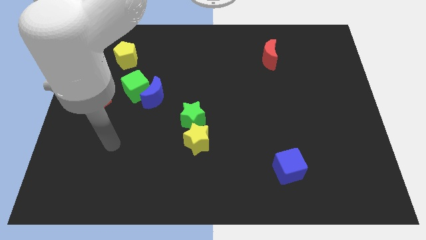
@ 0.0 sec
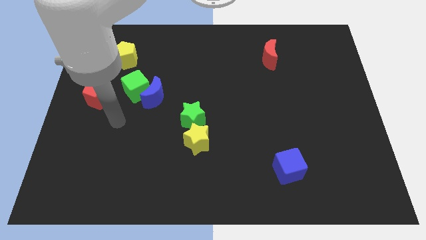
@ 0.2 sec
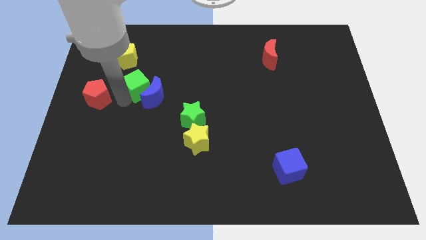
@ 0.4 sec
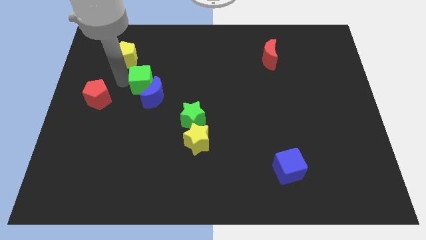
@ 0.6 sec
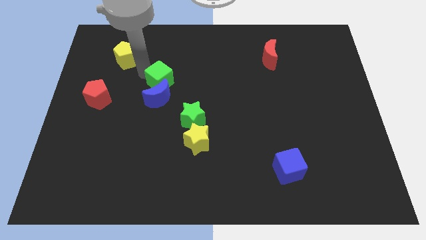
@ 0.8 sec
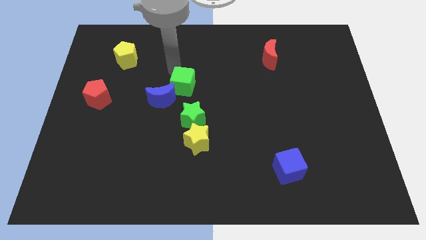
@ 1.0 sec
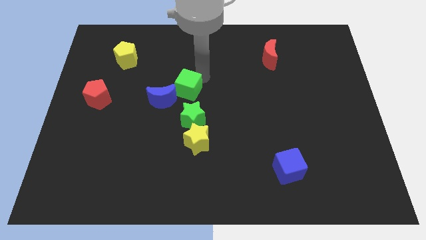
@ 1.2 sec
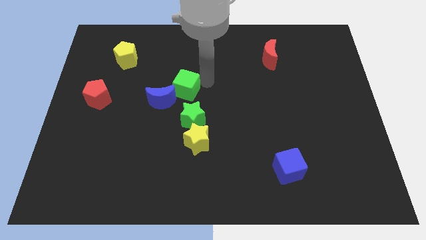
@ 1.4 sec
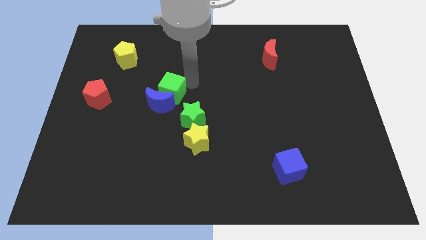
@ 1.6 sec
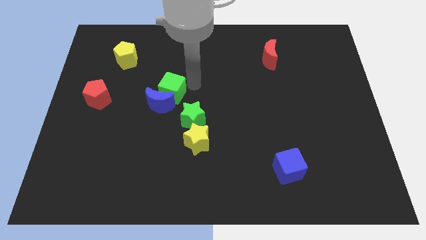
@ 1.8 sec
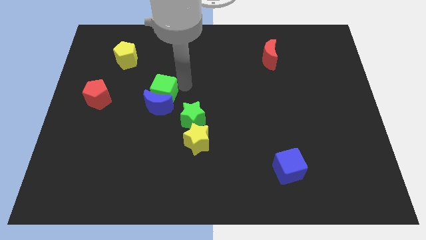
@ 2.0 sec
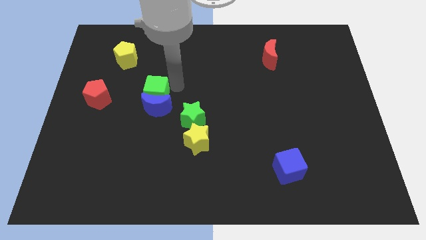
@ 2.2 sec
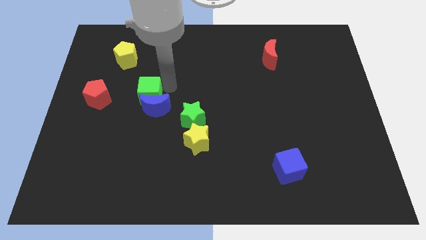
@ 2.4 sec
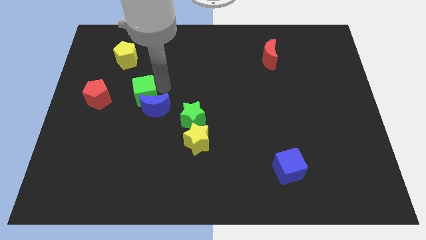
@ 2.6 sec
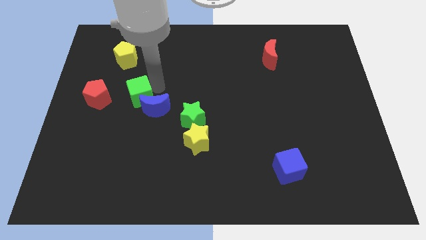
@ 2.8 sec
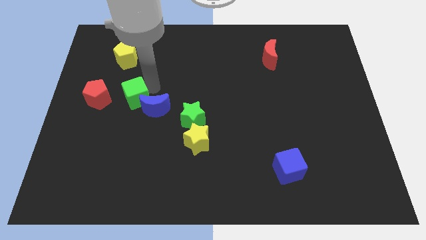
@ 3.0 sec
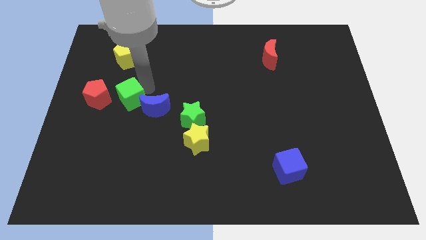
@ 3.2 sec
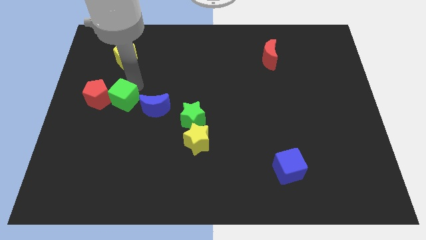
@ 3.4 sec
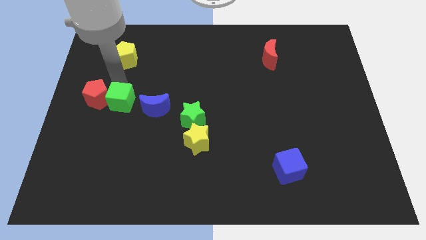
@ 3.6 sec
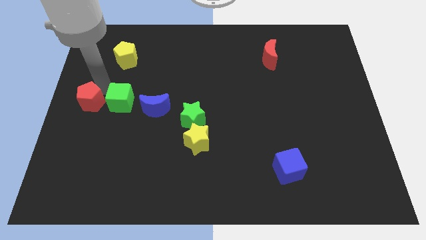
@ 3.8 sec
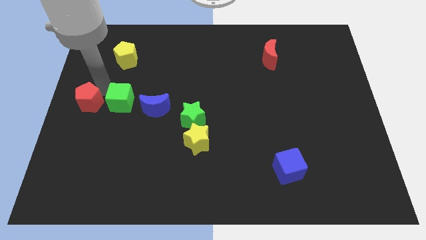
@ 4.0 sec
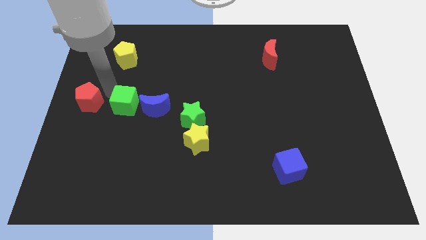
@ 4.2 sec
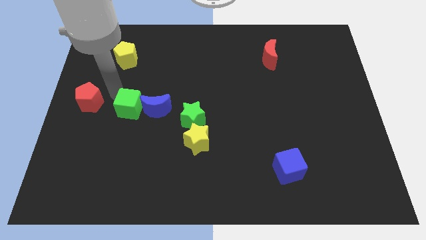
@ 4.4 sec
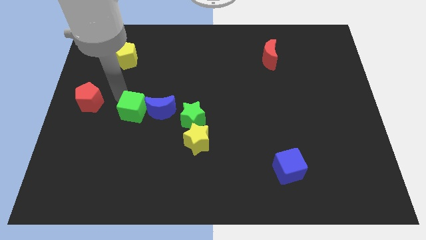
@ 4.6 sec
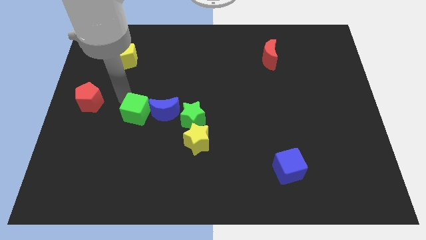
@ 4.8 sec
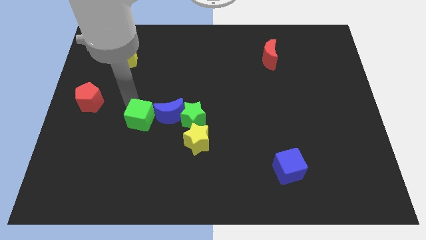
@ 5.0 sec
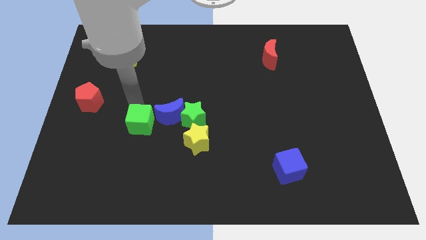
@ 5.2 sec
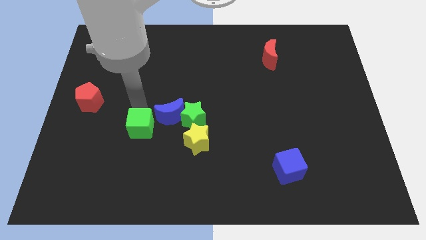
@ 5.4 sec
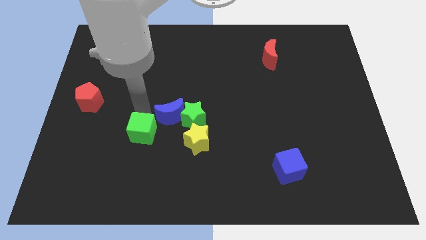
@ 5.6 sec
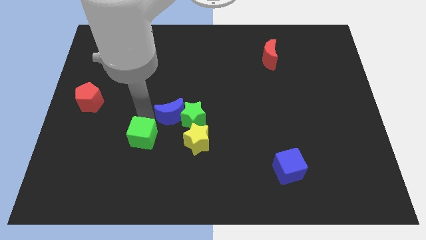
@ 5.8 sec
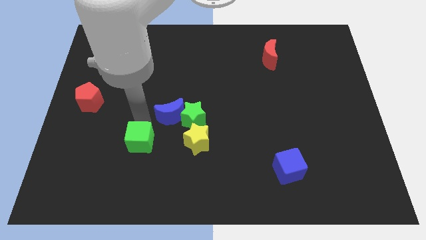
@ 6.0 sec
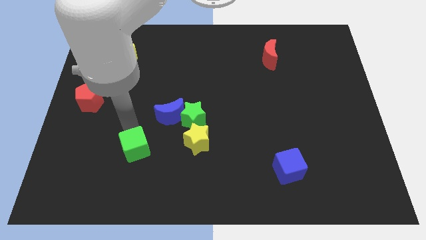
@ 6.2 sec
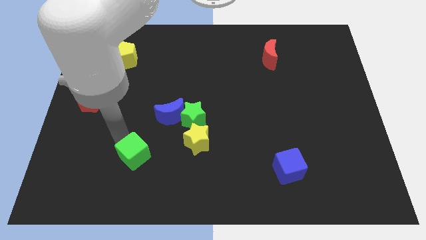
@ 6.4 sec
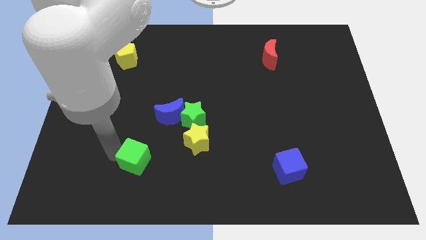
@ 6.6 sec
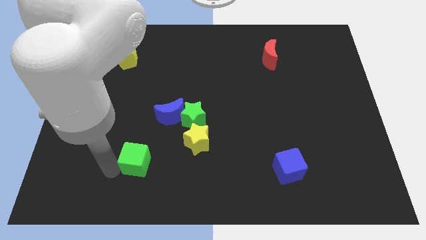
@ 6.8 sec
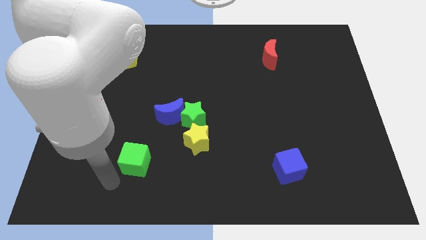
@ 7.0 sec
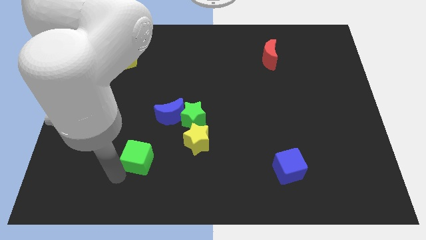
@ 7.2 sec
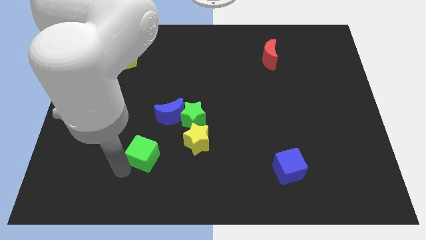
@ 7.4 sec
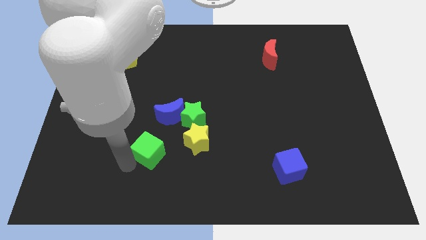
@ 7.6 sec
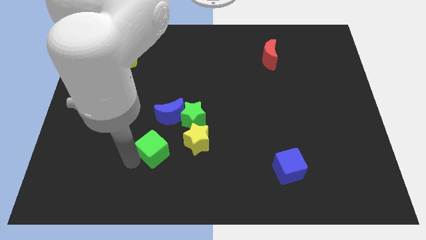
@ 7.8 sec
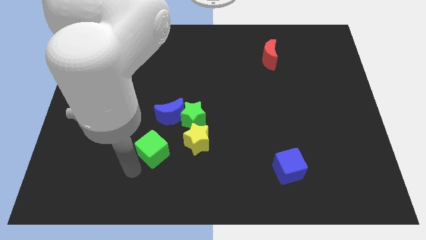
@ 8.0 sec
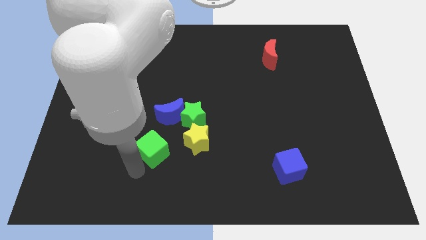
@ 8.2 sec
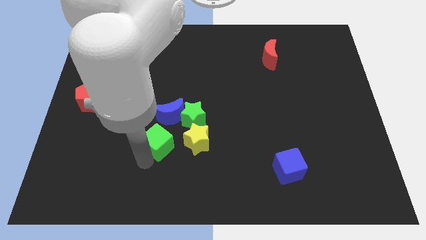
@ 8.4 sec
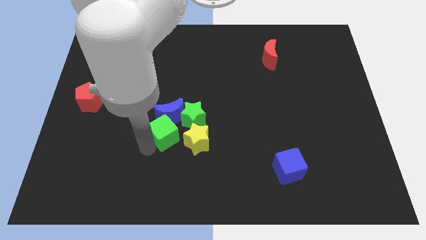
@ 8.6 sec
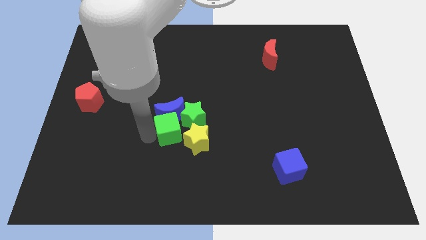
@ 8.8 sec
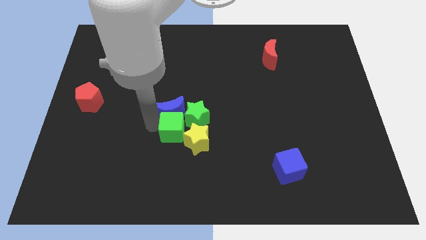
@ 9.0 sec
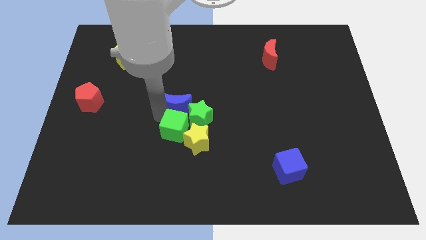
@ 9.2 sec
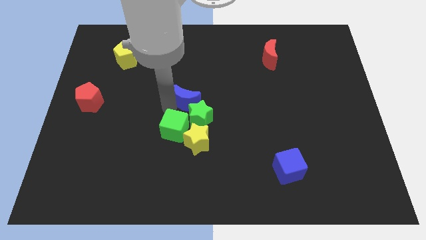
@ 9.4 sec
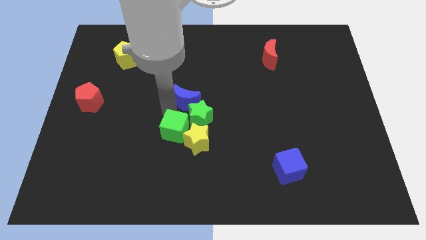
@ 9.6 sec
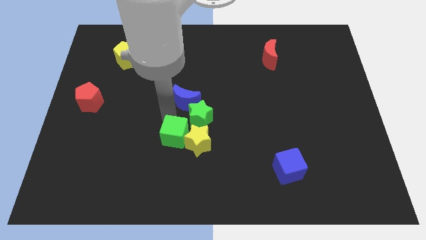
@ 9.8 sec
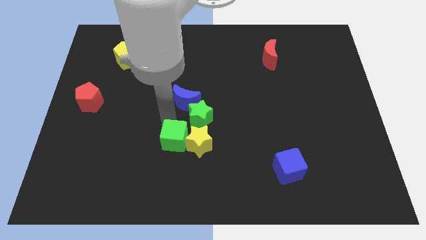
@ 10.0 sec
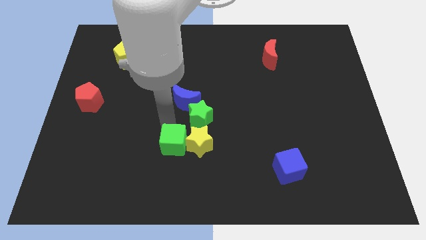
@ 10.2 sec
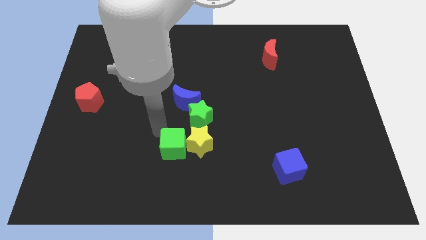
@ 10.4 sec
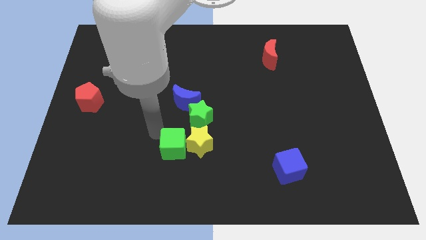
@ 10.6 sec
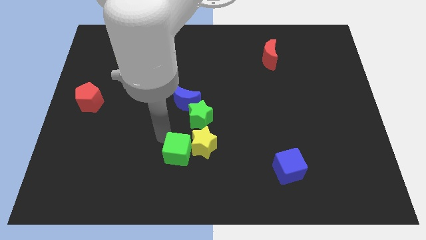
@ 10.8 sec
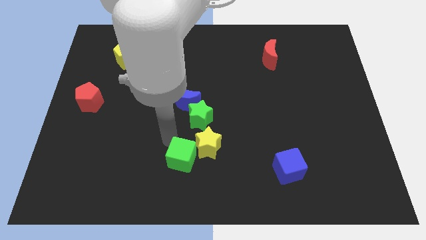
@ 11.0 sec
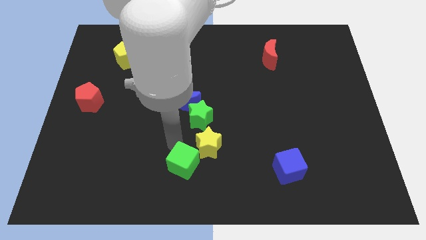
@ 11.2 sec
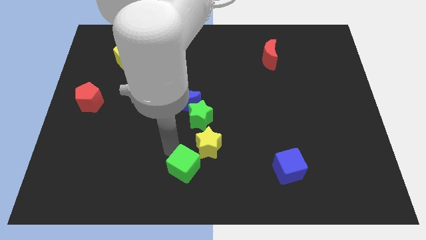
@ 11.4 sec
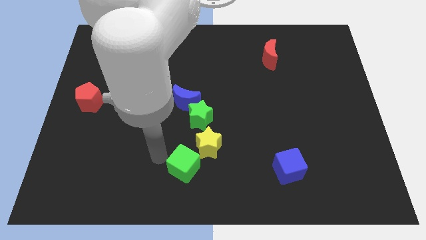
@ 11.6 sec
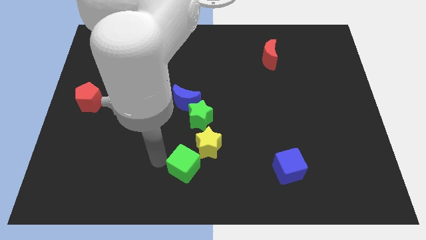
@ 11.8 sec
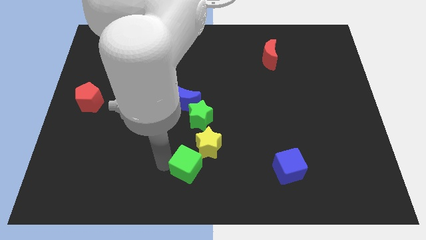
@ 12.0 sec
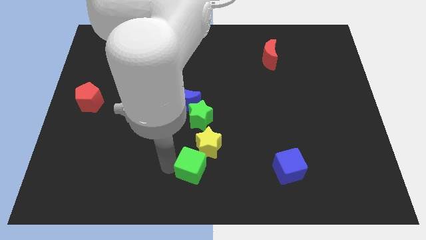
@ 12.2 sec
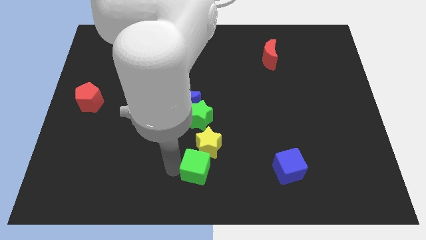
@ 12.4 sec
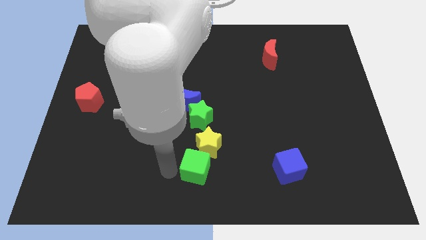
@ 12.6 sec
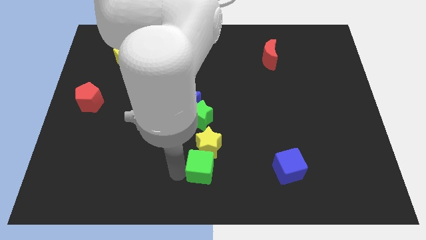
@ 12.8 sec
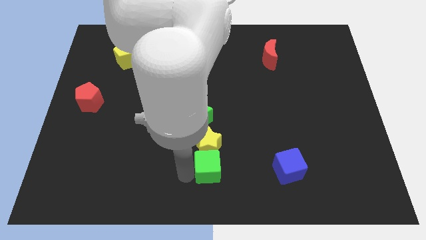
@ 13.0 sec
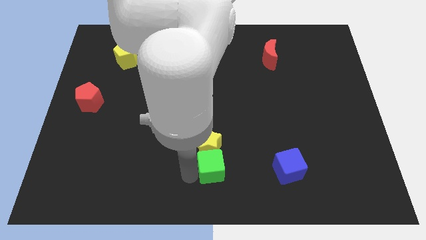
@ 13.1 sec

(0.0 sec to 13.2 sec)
slide the green cube to the left side of the blue cube

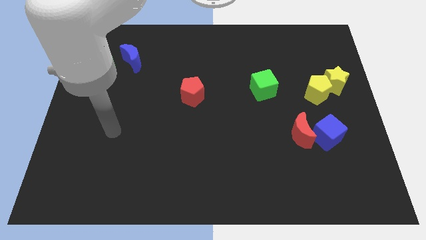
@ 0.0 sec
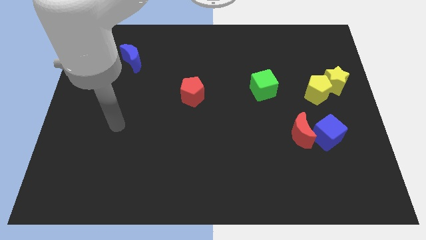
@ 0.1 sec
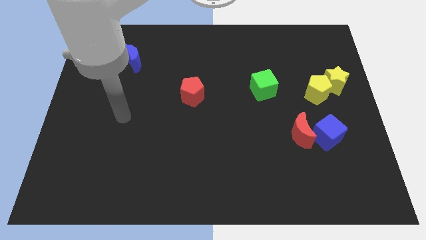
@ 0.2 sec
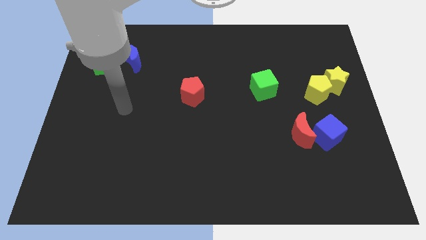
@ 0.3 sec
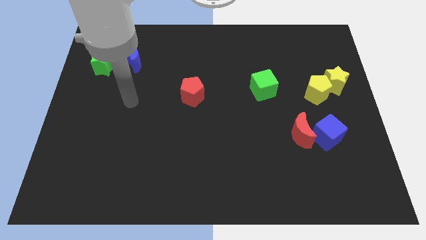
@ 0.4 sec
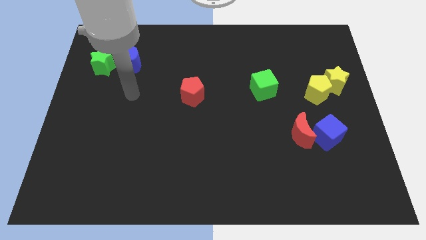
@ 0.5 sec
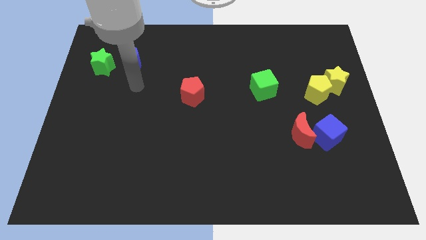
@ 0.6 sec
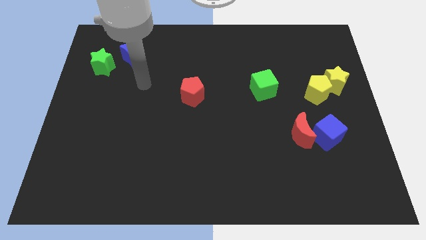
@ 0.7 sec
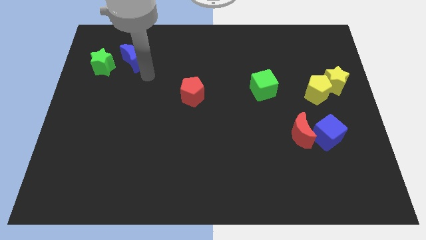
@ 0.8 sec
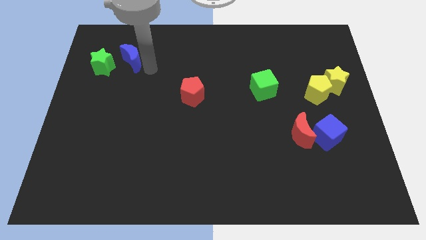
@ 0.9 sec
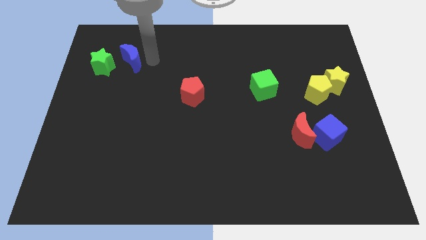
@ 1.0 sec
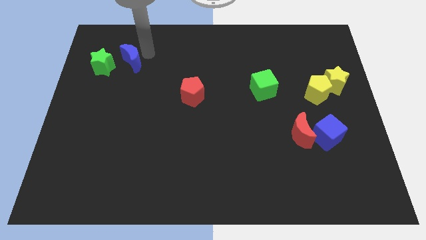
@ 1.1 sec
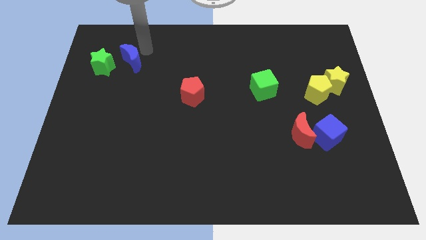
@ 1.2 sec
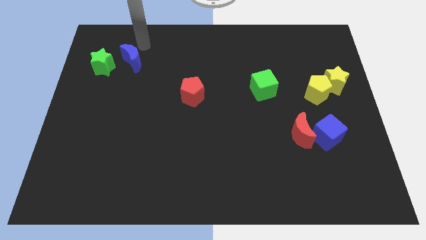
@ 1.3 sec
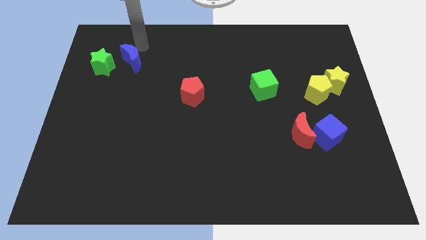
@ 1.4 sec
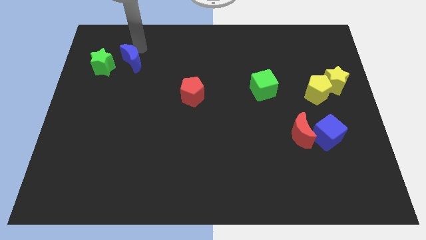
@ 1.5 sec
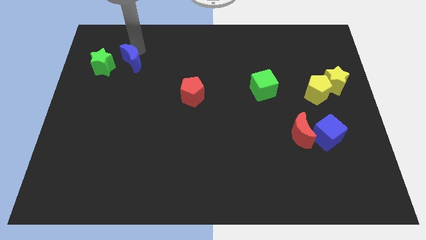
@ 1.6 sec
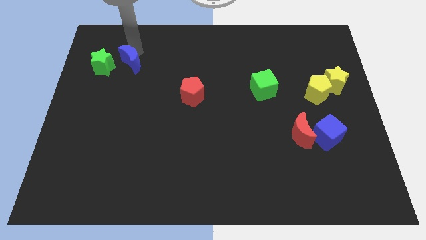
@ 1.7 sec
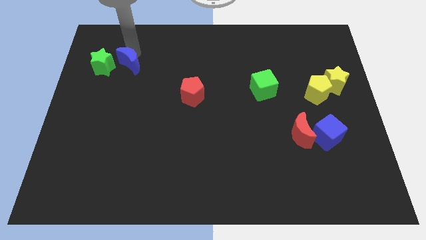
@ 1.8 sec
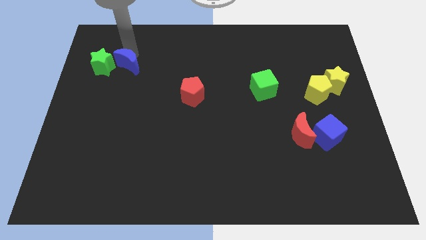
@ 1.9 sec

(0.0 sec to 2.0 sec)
push the blue moon to the bottom right of the green star
